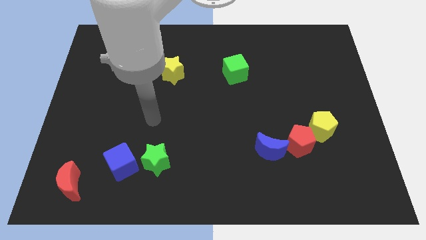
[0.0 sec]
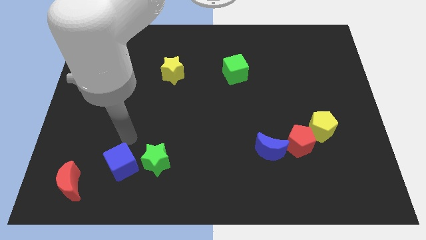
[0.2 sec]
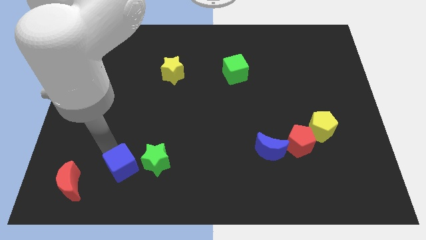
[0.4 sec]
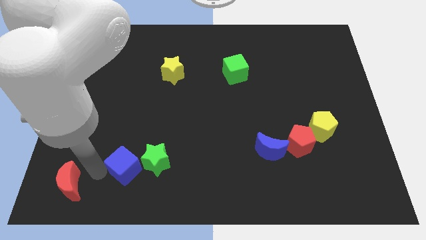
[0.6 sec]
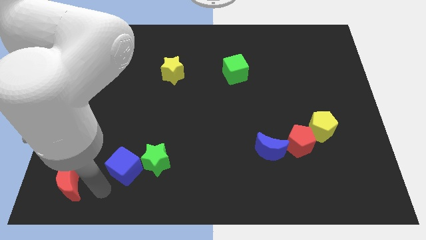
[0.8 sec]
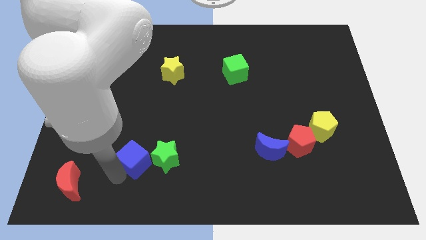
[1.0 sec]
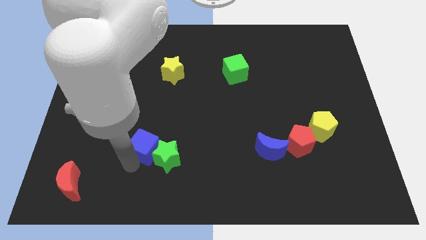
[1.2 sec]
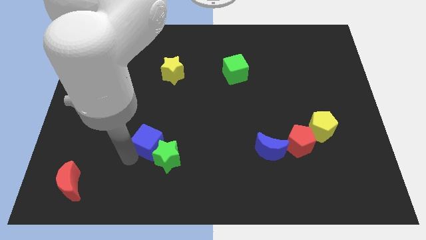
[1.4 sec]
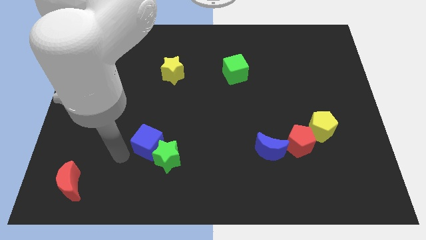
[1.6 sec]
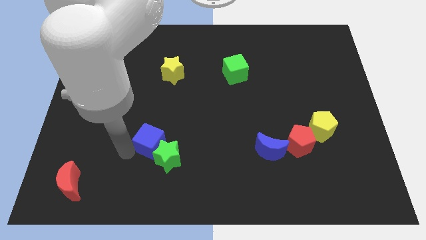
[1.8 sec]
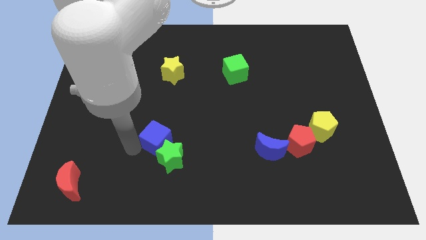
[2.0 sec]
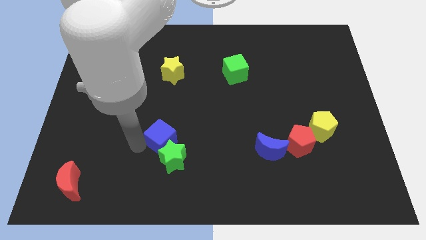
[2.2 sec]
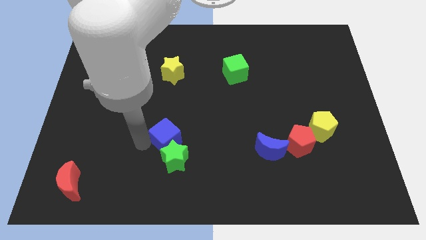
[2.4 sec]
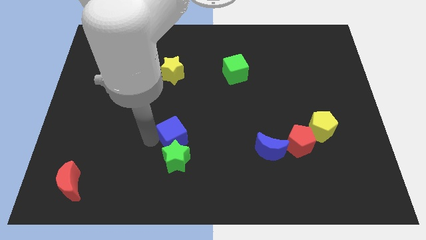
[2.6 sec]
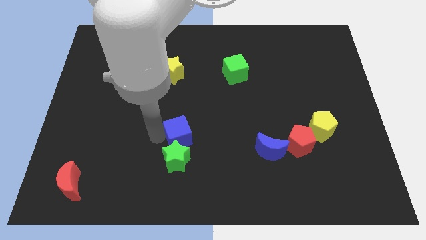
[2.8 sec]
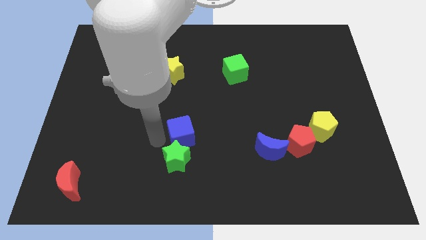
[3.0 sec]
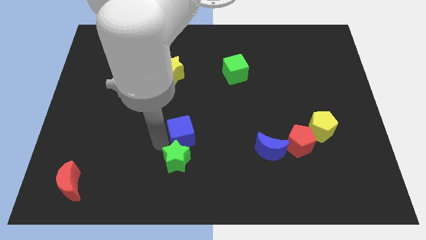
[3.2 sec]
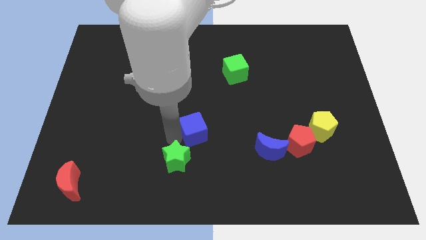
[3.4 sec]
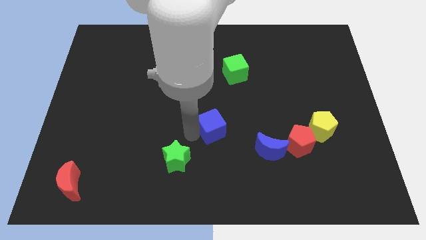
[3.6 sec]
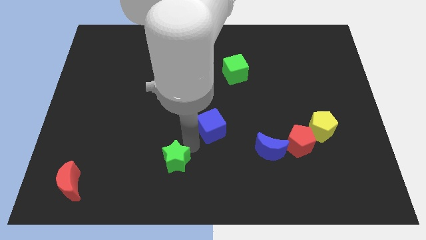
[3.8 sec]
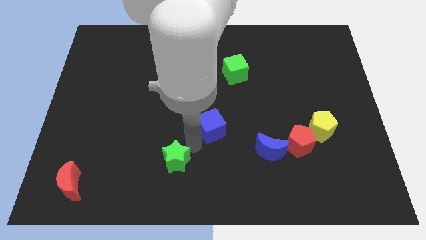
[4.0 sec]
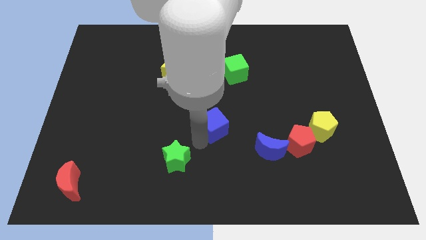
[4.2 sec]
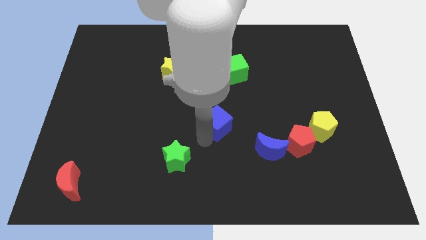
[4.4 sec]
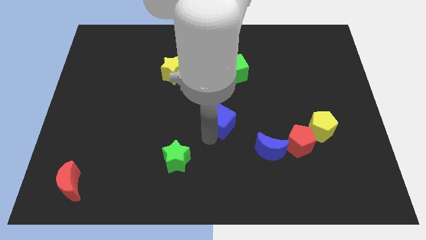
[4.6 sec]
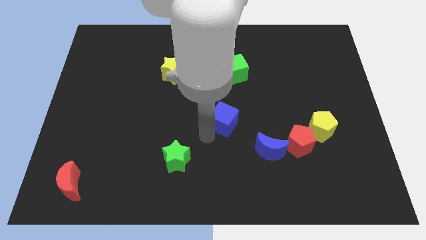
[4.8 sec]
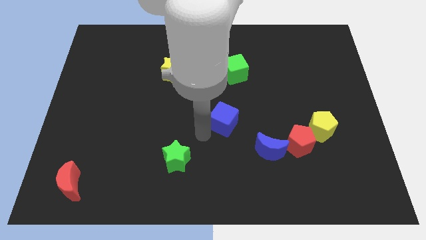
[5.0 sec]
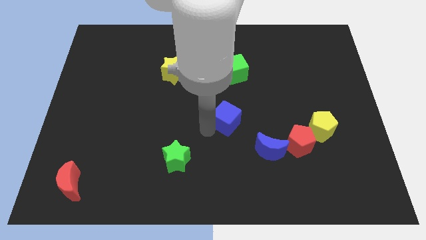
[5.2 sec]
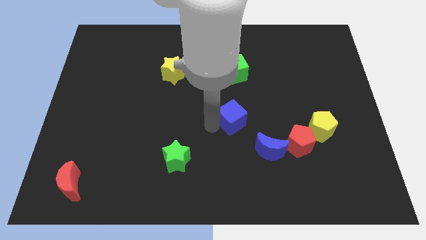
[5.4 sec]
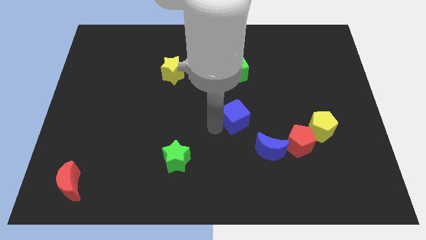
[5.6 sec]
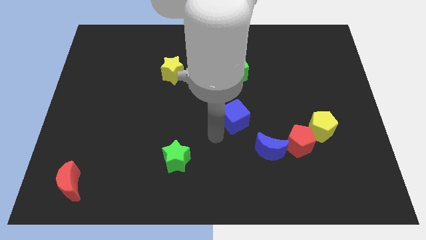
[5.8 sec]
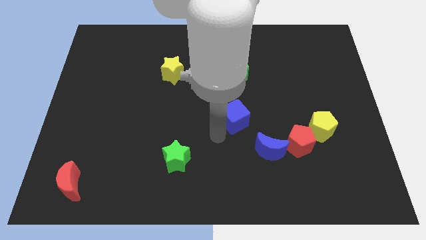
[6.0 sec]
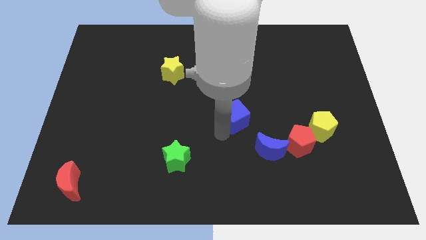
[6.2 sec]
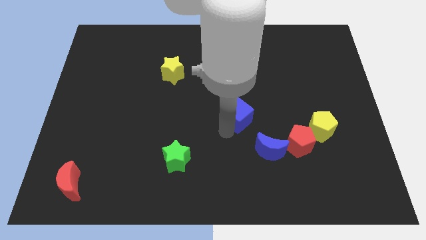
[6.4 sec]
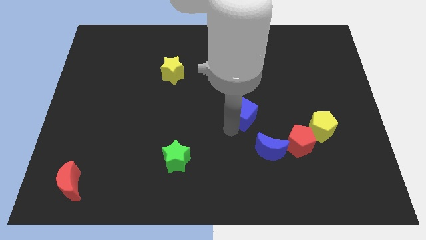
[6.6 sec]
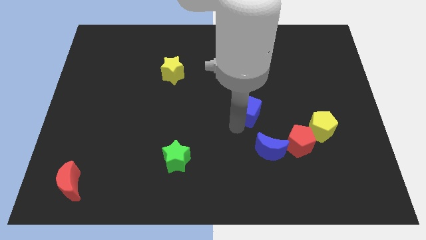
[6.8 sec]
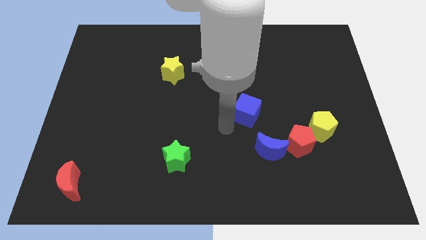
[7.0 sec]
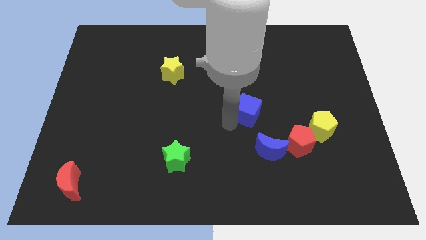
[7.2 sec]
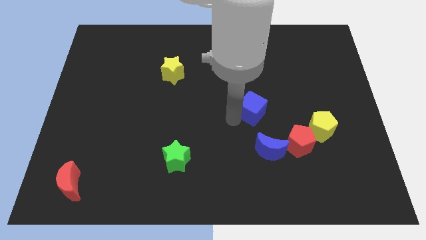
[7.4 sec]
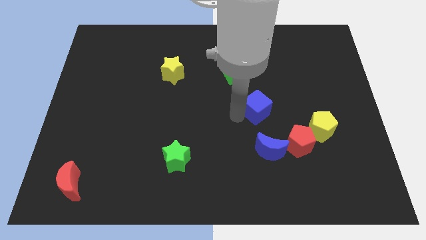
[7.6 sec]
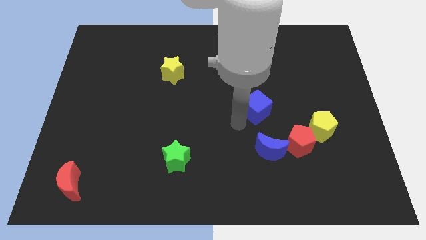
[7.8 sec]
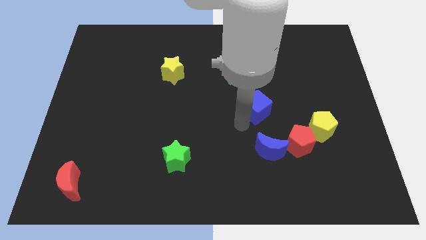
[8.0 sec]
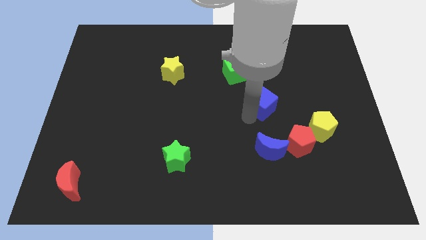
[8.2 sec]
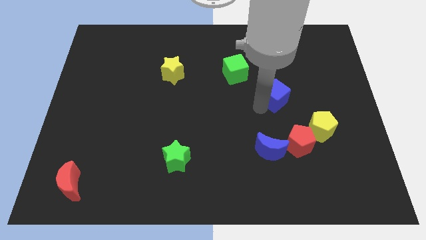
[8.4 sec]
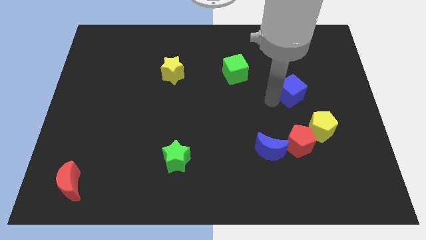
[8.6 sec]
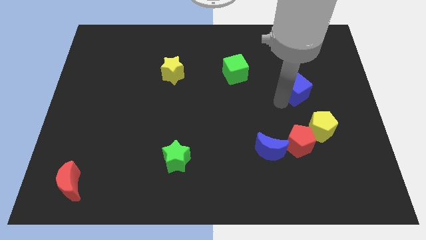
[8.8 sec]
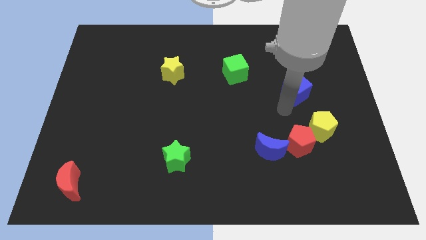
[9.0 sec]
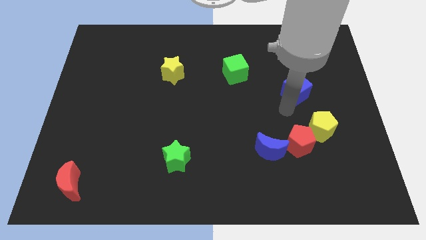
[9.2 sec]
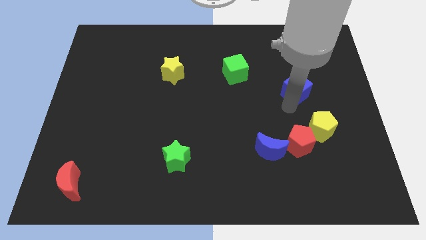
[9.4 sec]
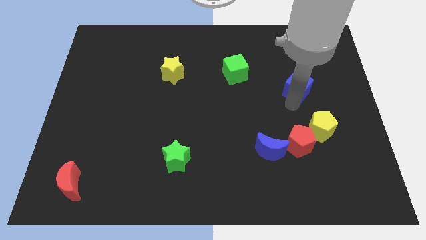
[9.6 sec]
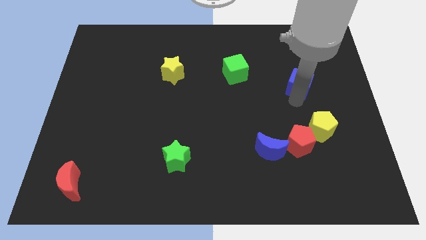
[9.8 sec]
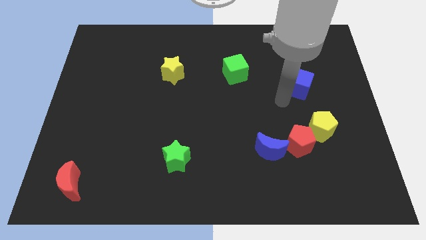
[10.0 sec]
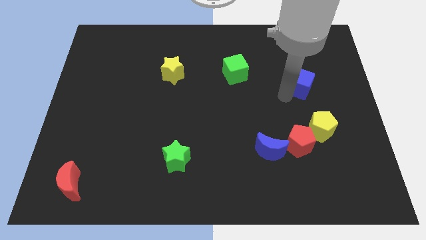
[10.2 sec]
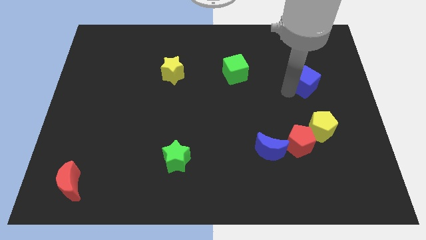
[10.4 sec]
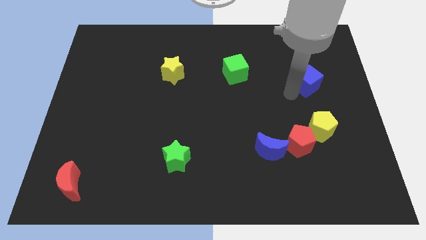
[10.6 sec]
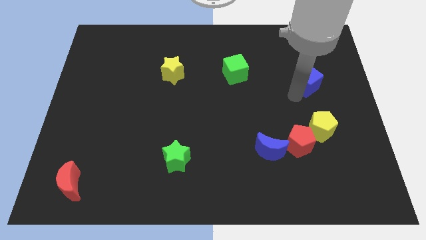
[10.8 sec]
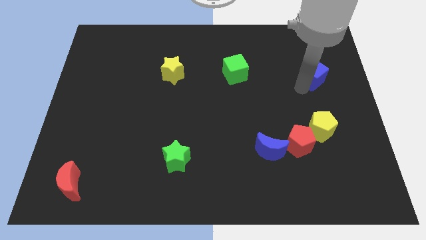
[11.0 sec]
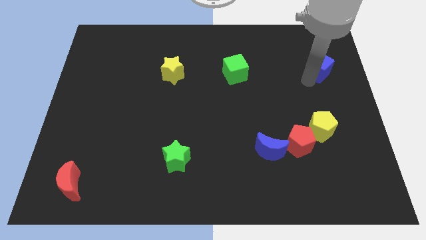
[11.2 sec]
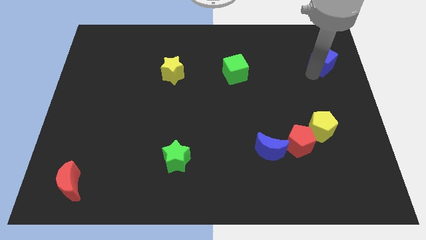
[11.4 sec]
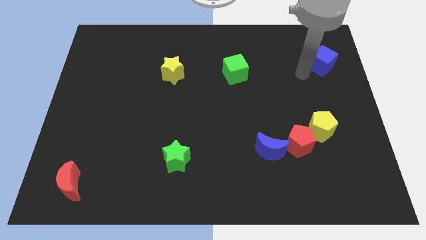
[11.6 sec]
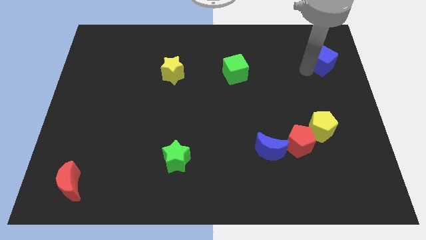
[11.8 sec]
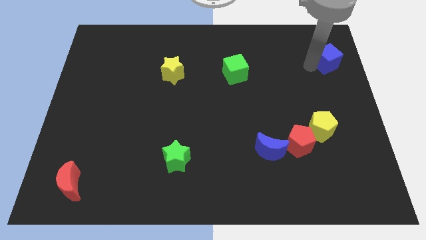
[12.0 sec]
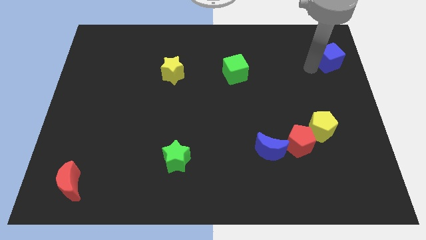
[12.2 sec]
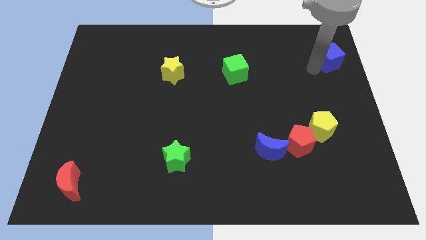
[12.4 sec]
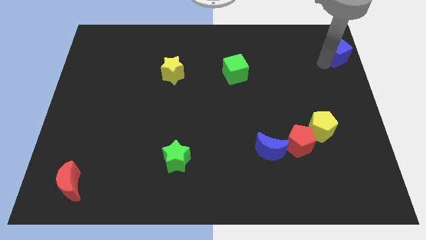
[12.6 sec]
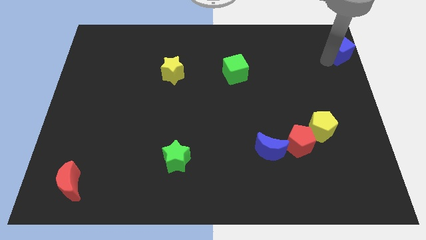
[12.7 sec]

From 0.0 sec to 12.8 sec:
slide the blue cube to the upper right corner
